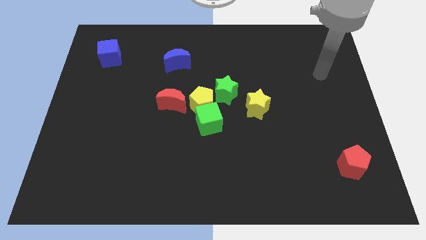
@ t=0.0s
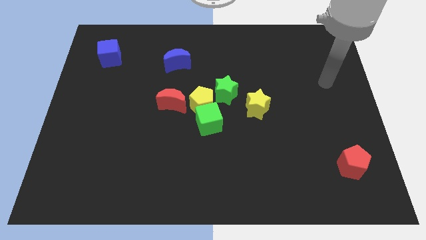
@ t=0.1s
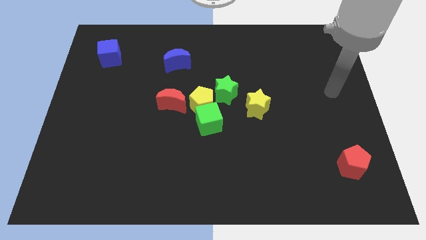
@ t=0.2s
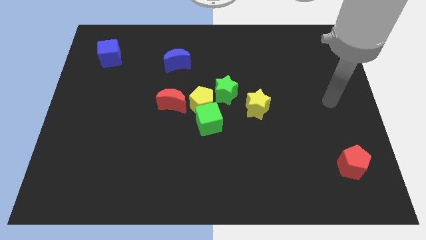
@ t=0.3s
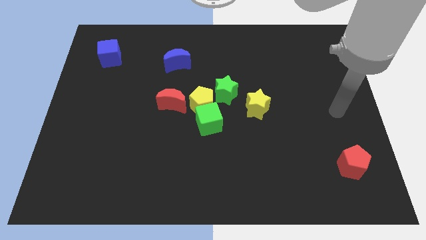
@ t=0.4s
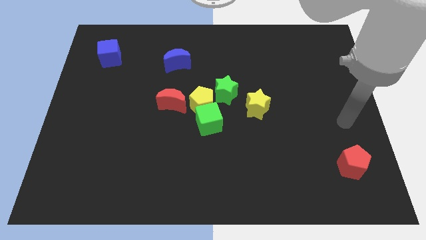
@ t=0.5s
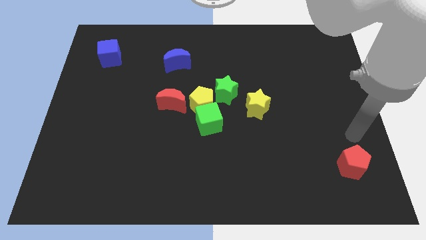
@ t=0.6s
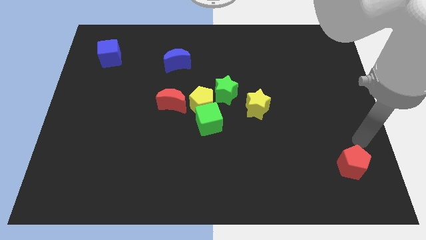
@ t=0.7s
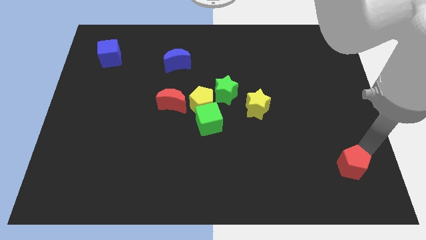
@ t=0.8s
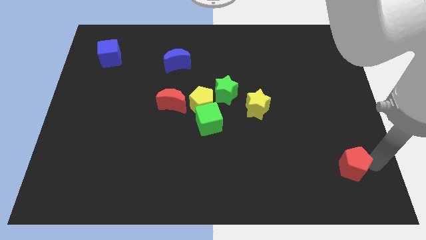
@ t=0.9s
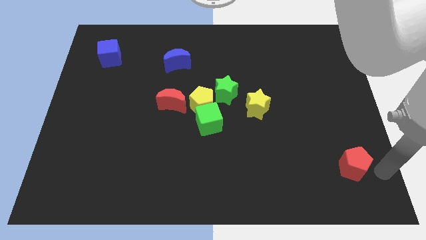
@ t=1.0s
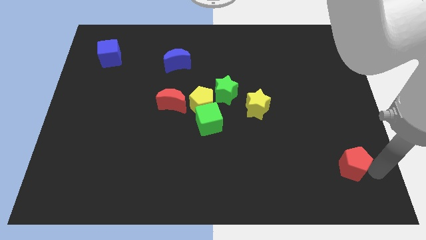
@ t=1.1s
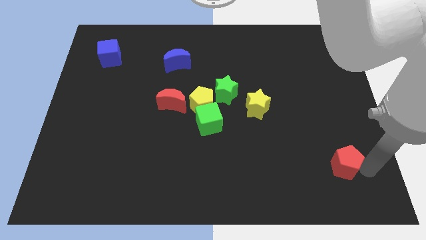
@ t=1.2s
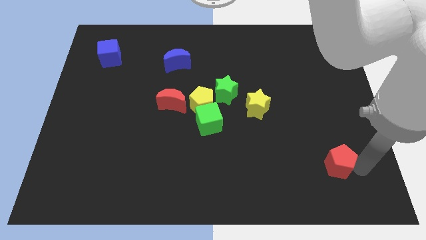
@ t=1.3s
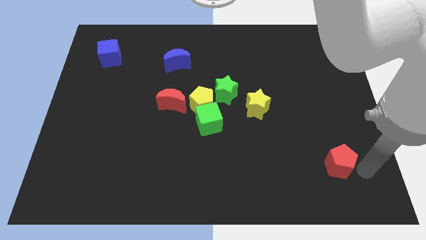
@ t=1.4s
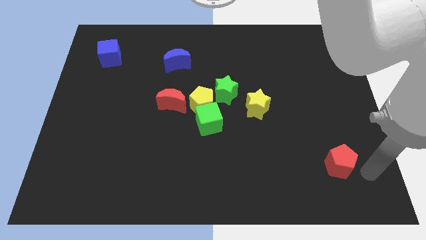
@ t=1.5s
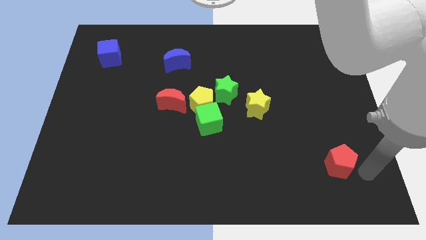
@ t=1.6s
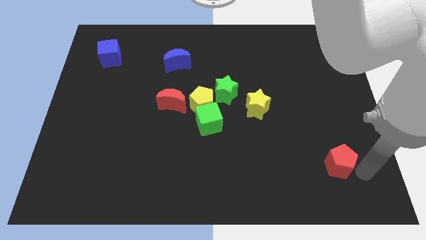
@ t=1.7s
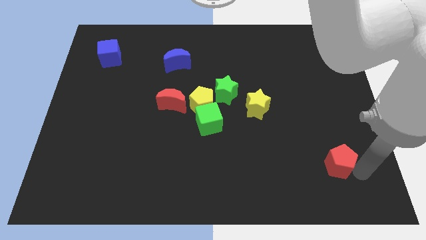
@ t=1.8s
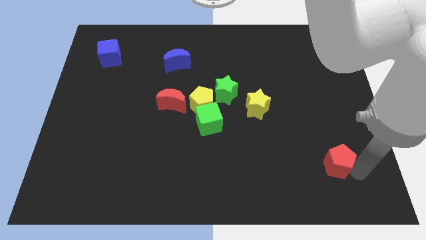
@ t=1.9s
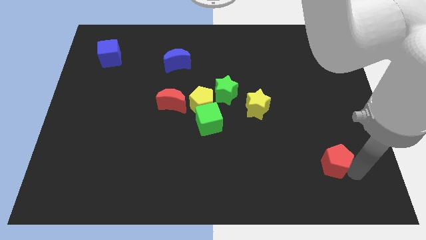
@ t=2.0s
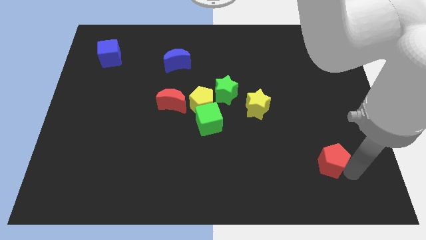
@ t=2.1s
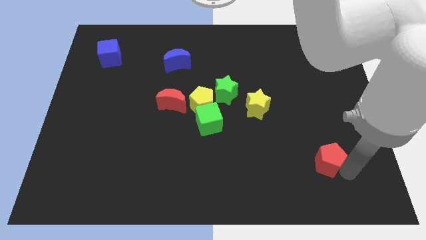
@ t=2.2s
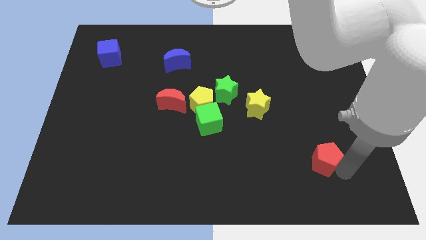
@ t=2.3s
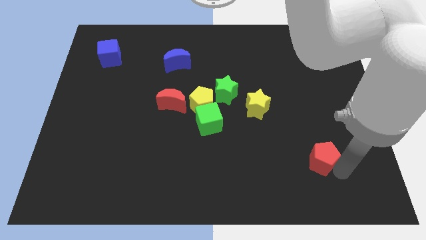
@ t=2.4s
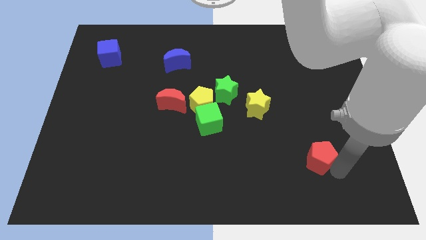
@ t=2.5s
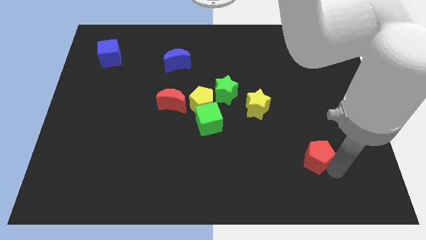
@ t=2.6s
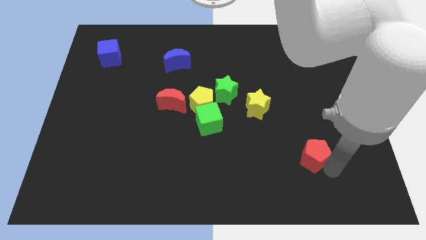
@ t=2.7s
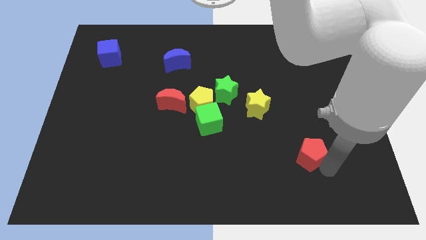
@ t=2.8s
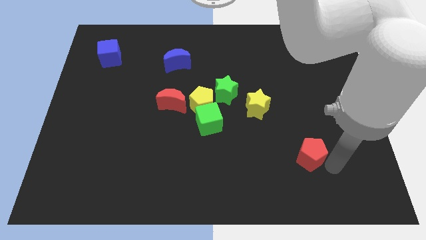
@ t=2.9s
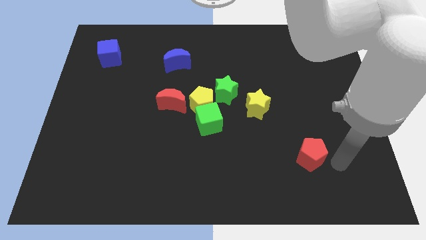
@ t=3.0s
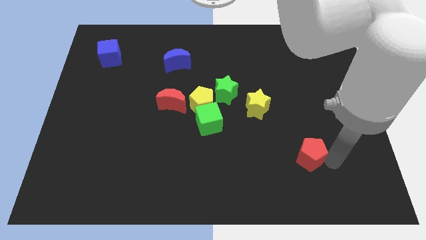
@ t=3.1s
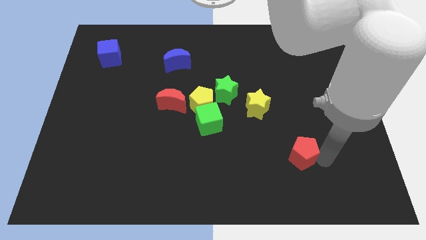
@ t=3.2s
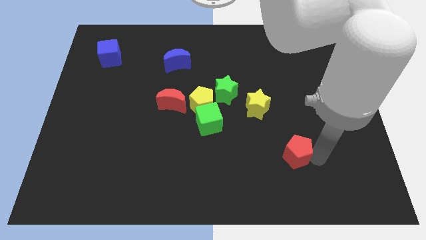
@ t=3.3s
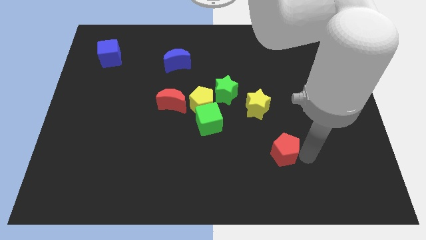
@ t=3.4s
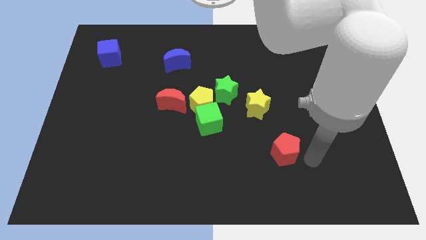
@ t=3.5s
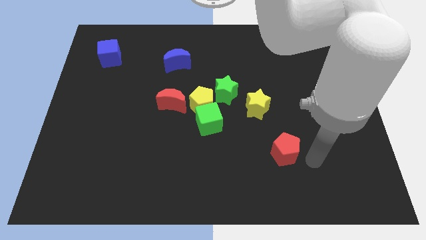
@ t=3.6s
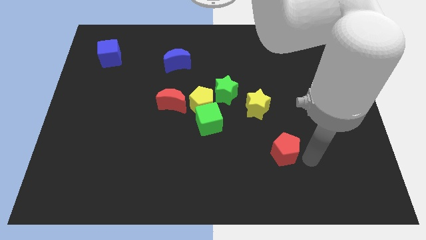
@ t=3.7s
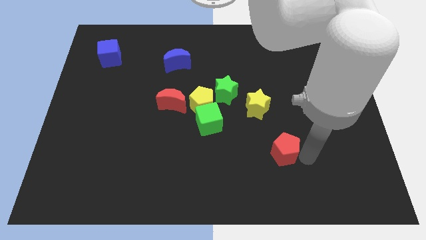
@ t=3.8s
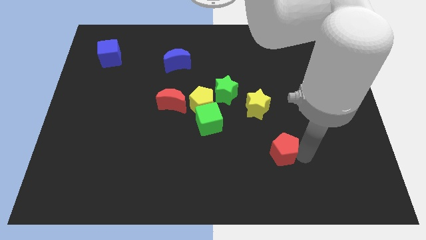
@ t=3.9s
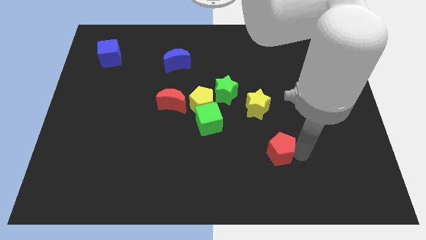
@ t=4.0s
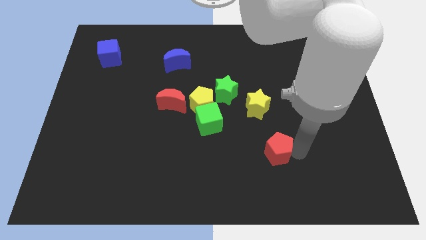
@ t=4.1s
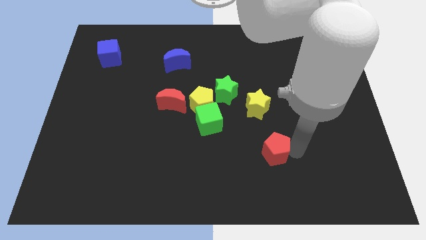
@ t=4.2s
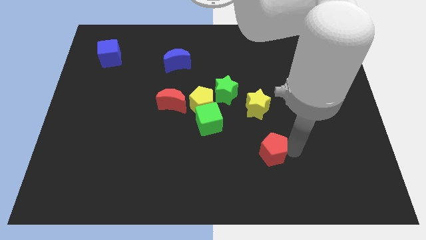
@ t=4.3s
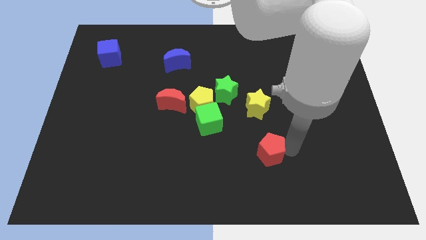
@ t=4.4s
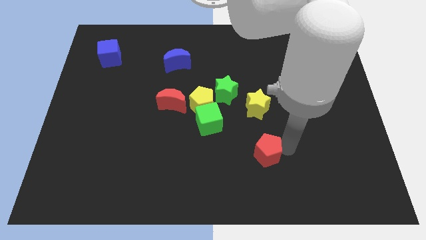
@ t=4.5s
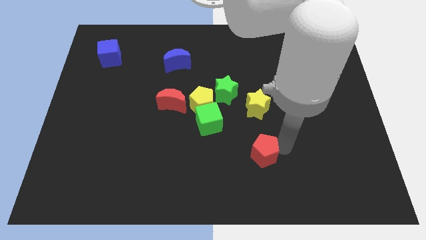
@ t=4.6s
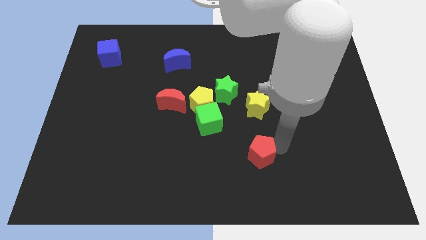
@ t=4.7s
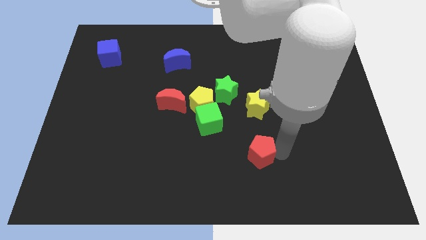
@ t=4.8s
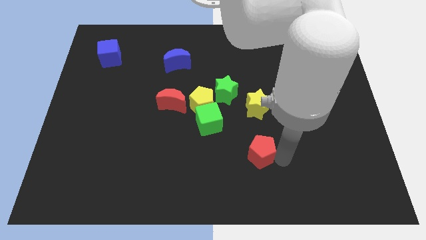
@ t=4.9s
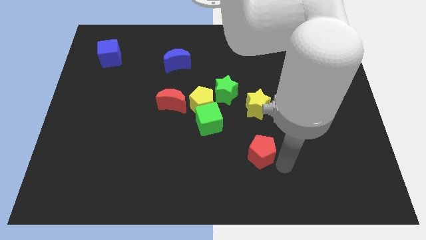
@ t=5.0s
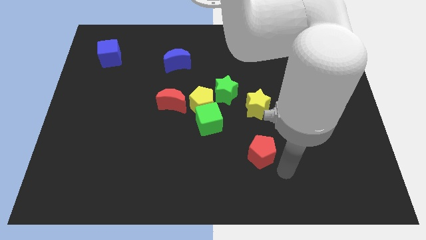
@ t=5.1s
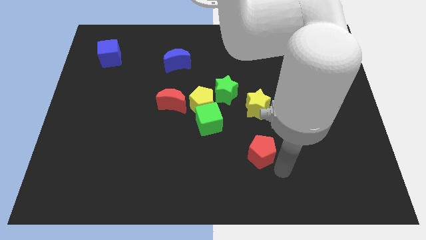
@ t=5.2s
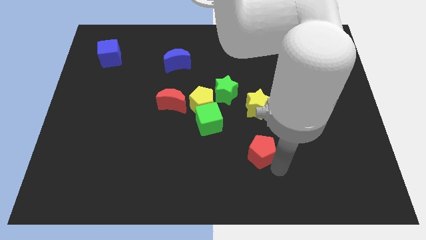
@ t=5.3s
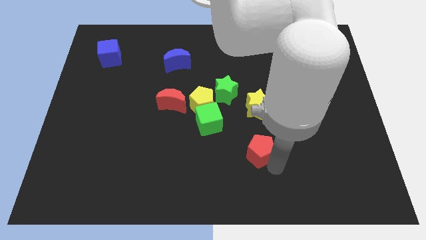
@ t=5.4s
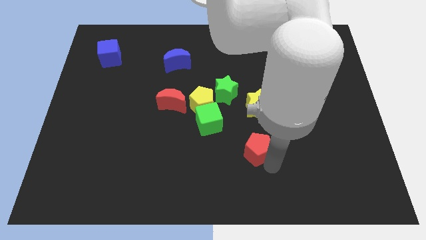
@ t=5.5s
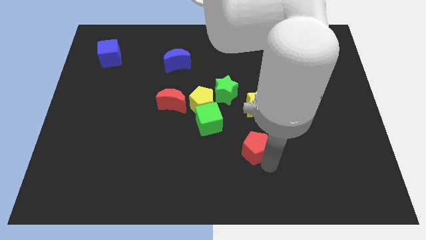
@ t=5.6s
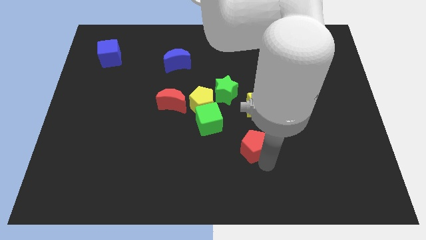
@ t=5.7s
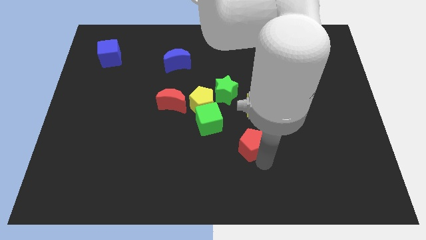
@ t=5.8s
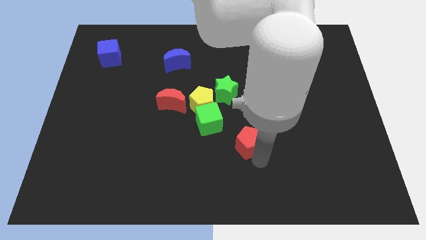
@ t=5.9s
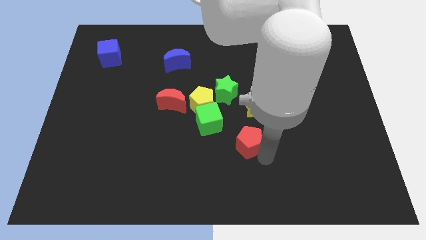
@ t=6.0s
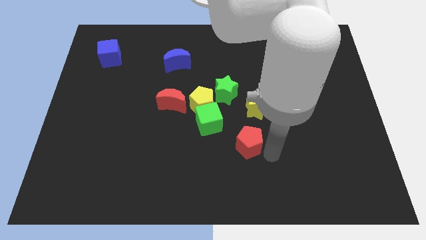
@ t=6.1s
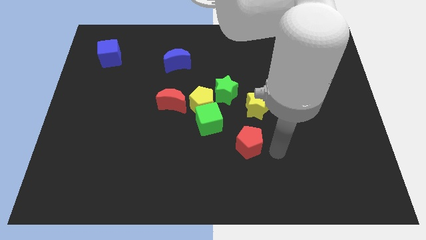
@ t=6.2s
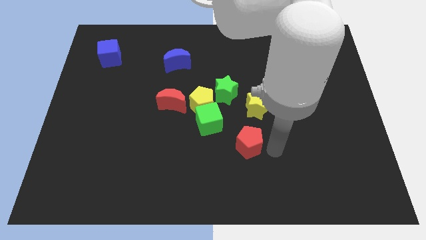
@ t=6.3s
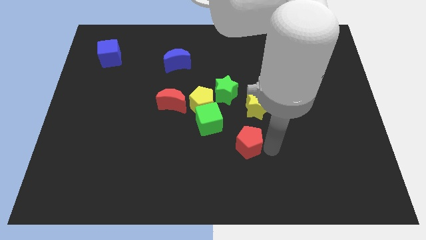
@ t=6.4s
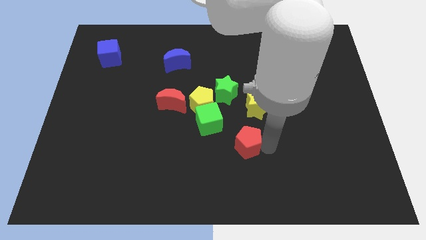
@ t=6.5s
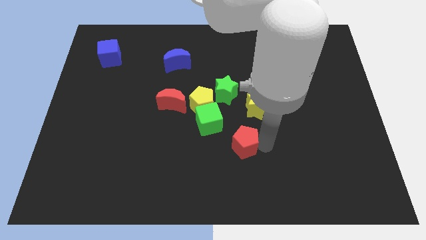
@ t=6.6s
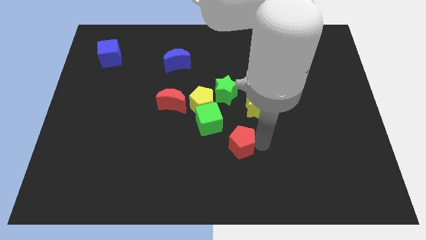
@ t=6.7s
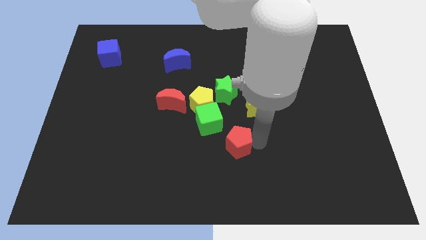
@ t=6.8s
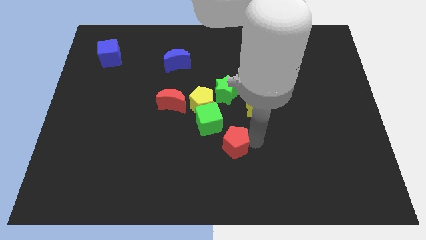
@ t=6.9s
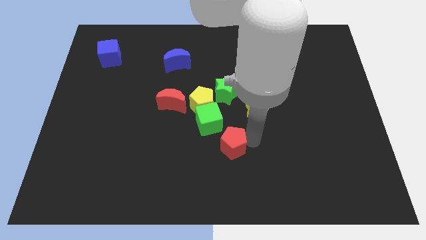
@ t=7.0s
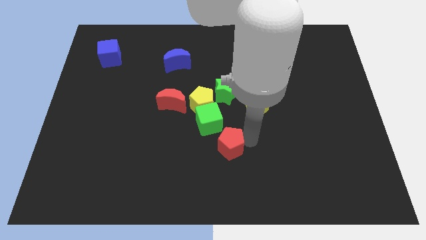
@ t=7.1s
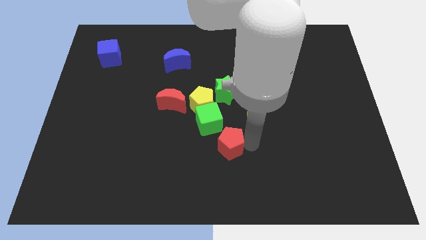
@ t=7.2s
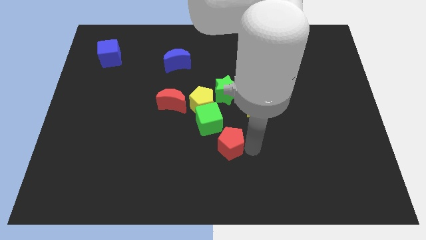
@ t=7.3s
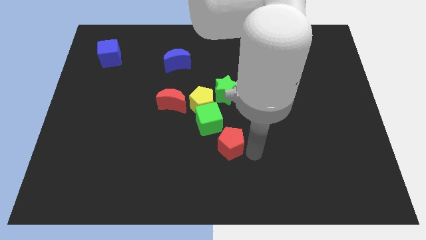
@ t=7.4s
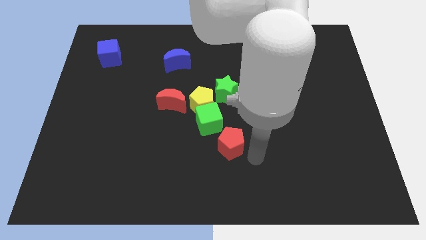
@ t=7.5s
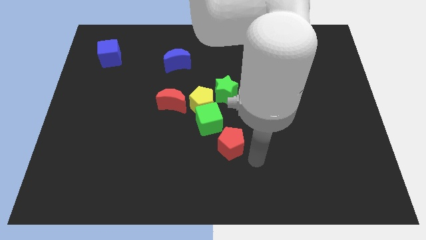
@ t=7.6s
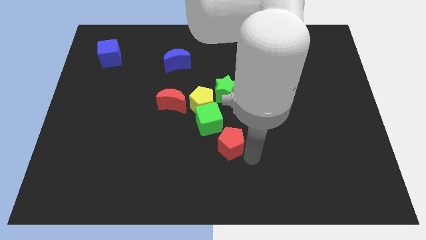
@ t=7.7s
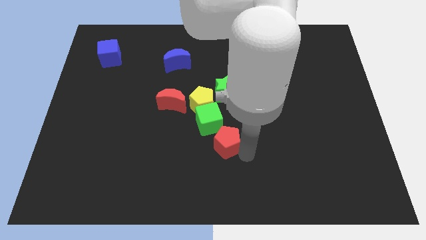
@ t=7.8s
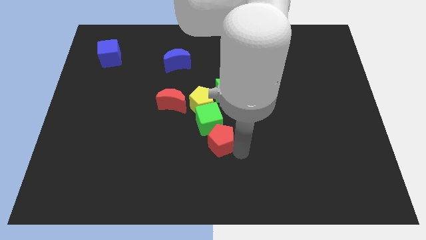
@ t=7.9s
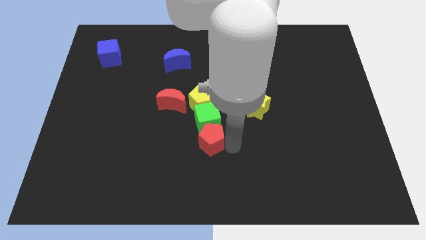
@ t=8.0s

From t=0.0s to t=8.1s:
move the red pentagon to the bottom left of the green cube
